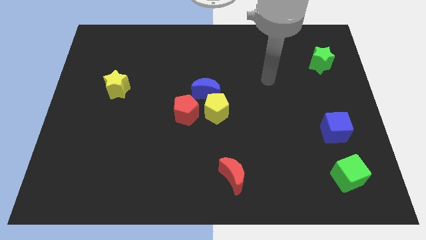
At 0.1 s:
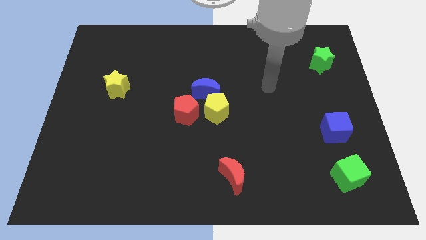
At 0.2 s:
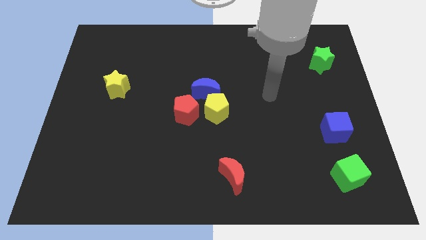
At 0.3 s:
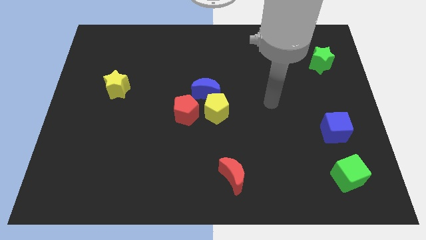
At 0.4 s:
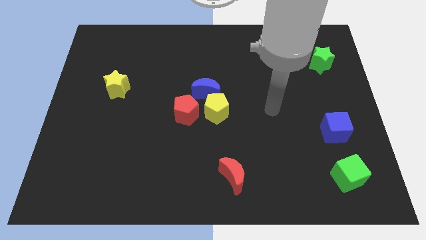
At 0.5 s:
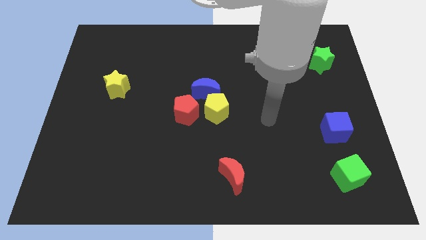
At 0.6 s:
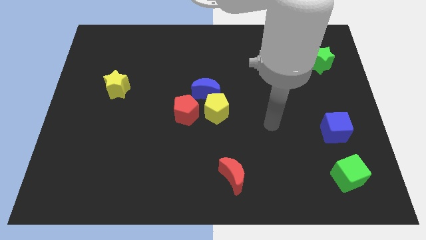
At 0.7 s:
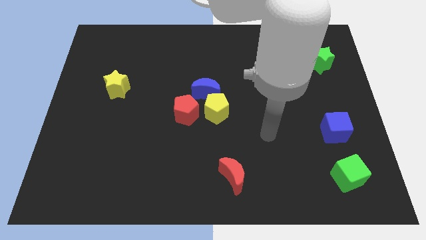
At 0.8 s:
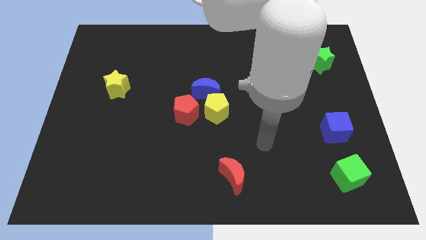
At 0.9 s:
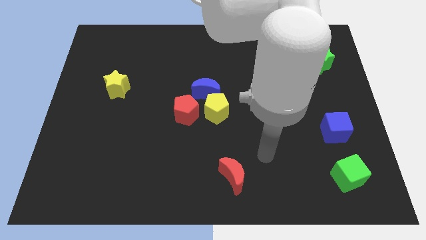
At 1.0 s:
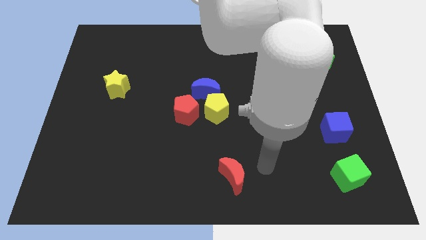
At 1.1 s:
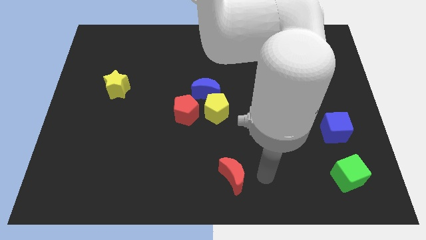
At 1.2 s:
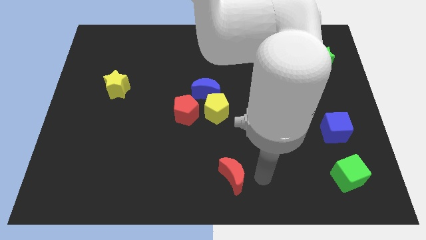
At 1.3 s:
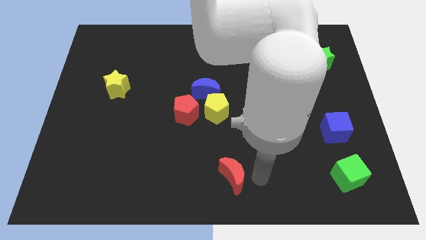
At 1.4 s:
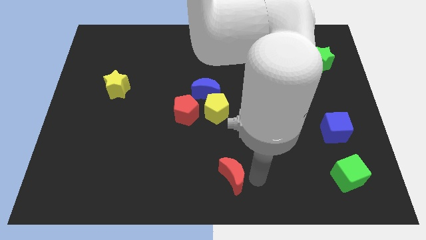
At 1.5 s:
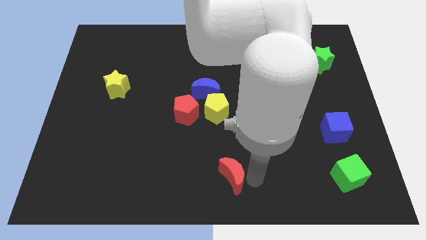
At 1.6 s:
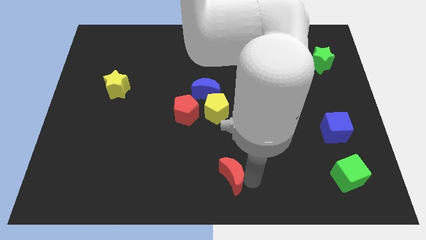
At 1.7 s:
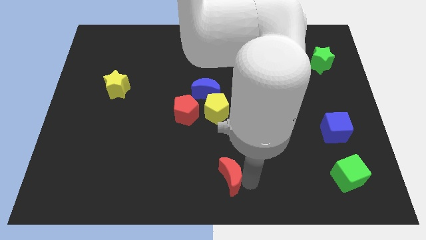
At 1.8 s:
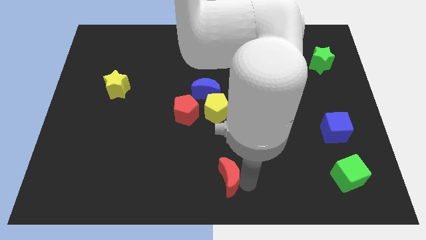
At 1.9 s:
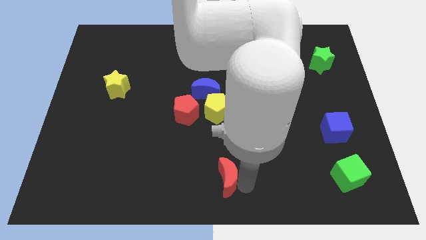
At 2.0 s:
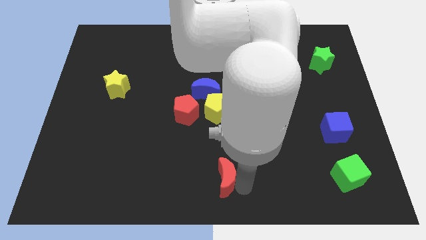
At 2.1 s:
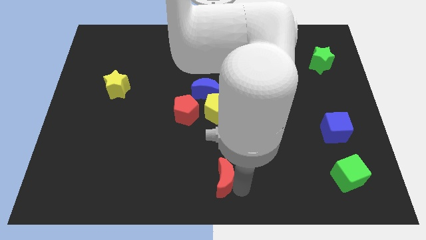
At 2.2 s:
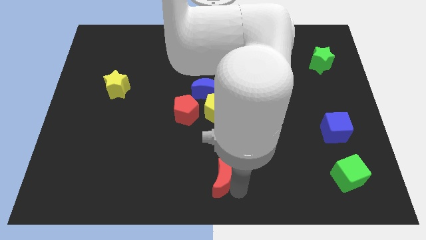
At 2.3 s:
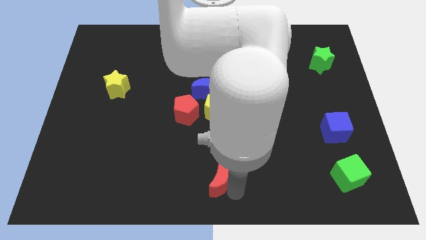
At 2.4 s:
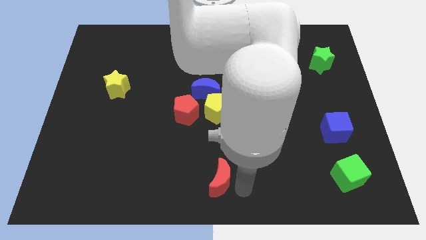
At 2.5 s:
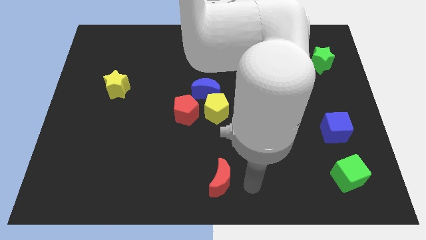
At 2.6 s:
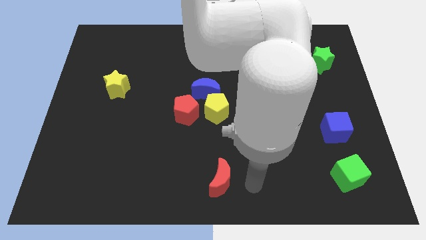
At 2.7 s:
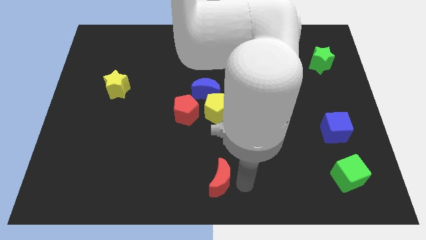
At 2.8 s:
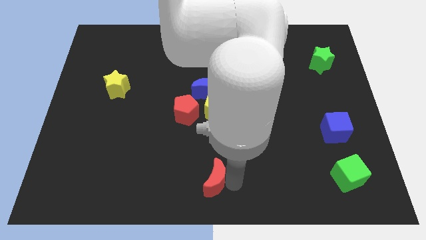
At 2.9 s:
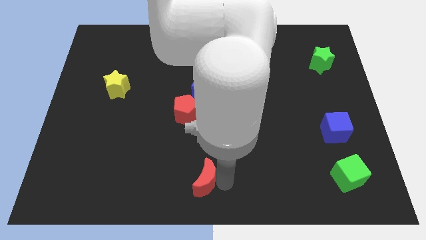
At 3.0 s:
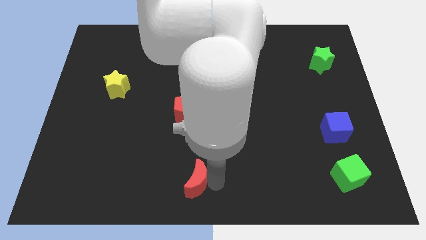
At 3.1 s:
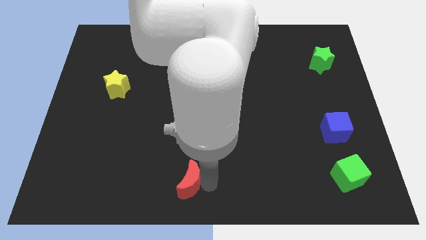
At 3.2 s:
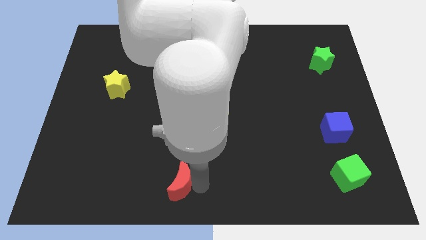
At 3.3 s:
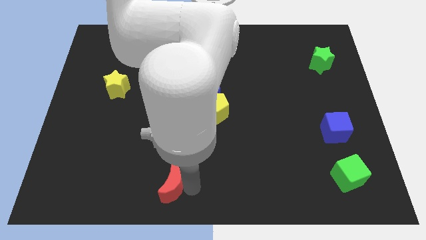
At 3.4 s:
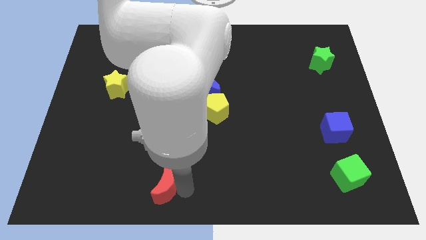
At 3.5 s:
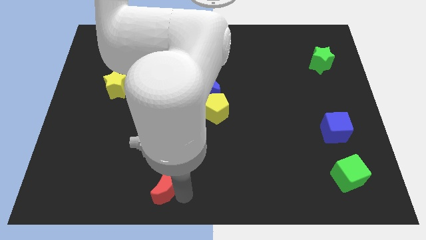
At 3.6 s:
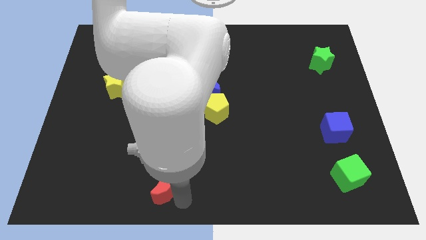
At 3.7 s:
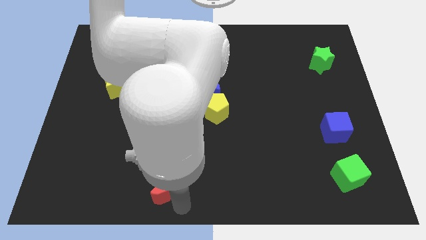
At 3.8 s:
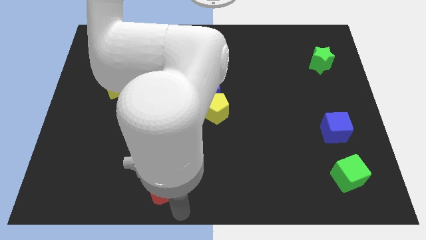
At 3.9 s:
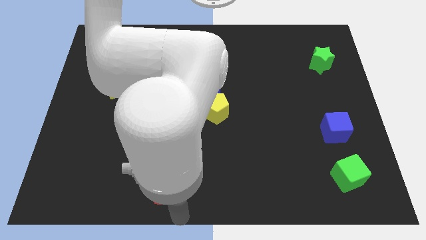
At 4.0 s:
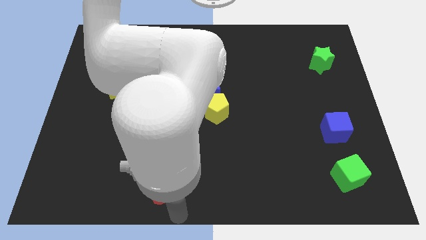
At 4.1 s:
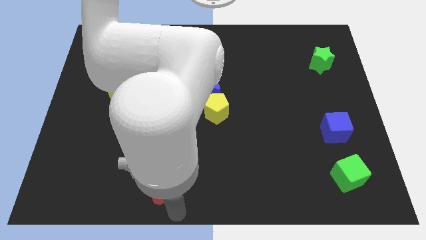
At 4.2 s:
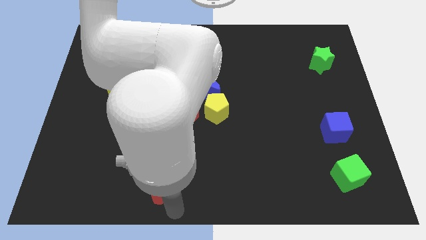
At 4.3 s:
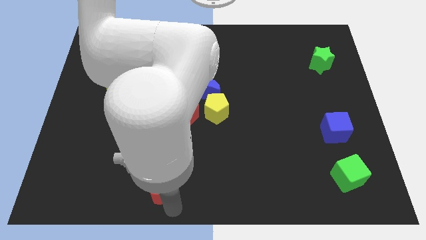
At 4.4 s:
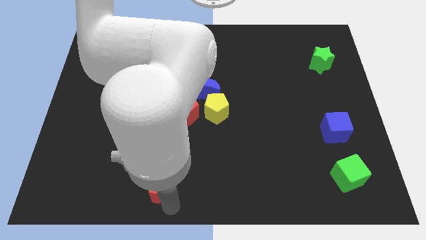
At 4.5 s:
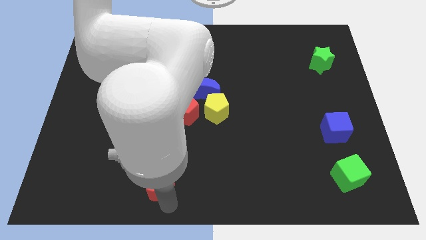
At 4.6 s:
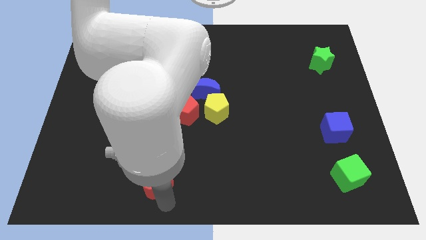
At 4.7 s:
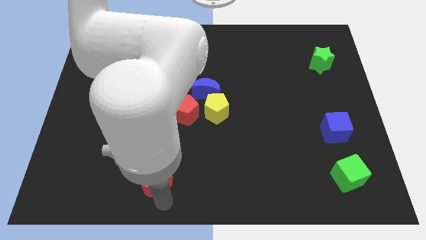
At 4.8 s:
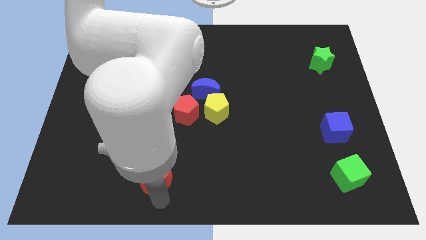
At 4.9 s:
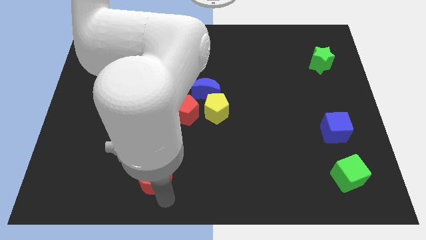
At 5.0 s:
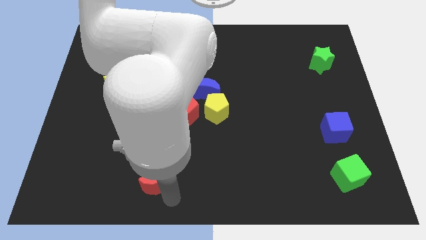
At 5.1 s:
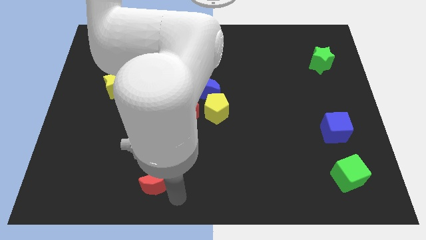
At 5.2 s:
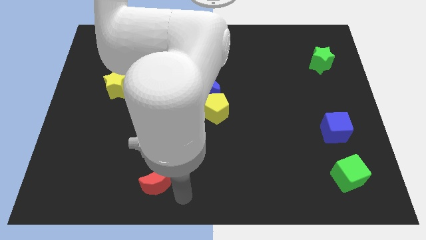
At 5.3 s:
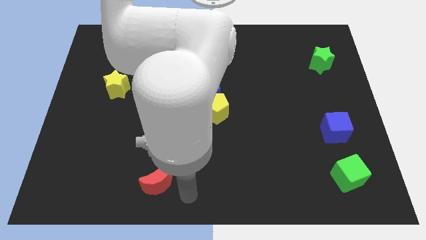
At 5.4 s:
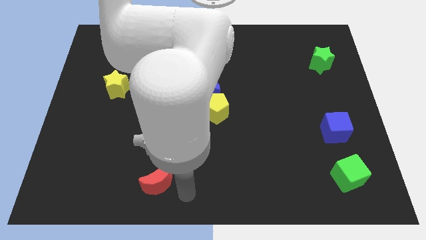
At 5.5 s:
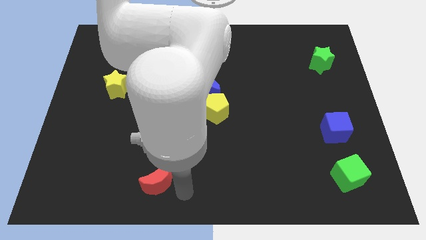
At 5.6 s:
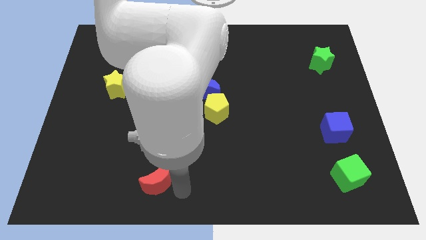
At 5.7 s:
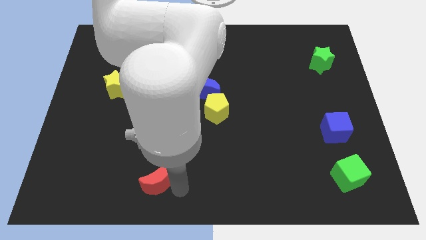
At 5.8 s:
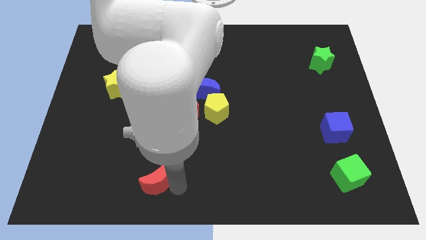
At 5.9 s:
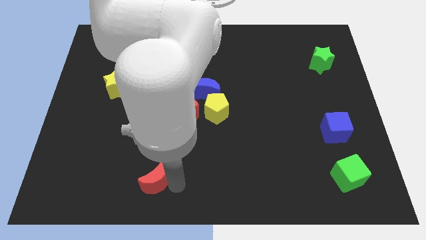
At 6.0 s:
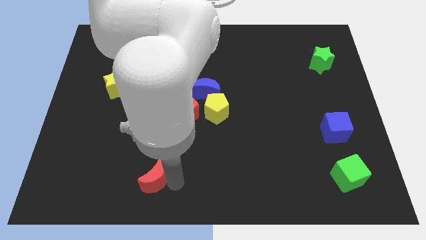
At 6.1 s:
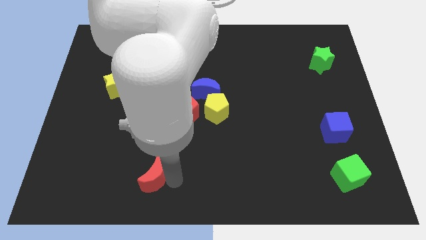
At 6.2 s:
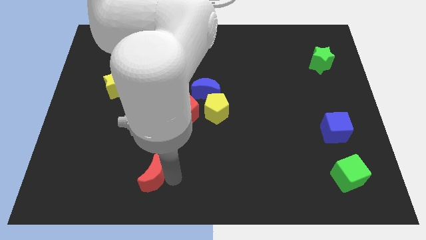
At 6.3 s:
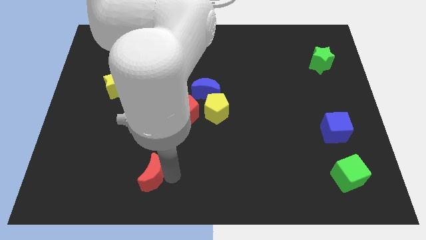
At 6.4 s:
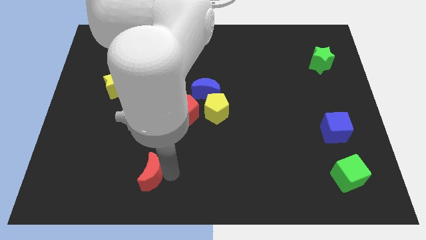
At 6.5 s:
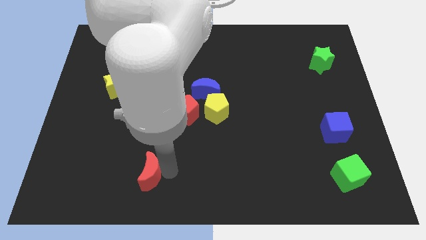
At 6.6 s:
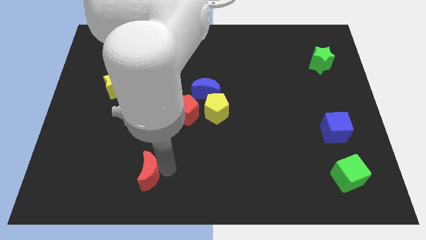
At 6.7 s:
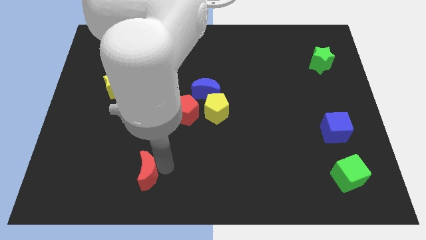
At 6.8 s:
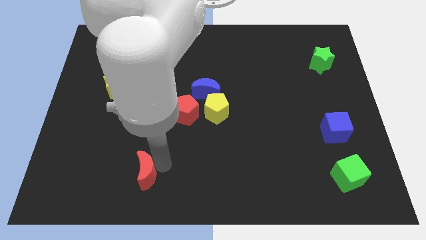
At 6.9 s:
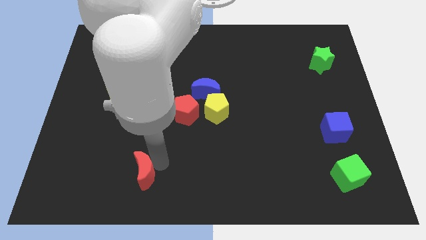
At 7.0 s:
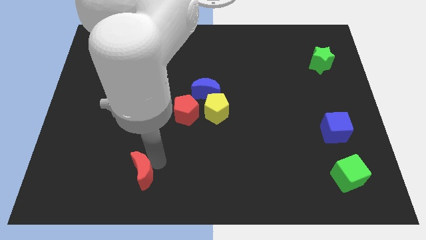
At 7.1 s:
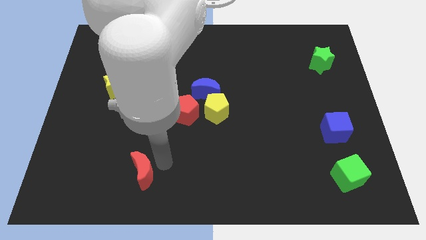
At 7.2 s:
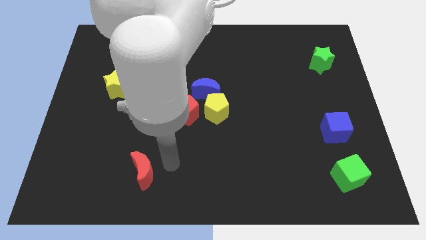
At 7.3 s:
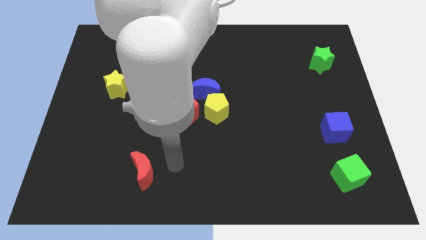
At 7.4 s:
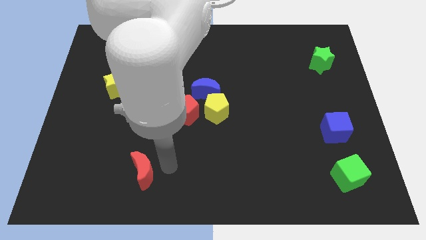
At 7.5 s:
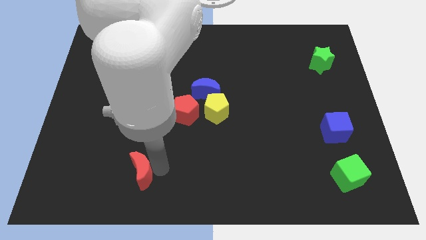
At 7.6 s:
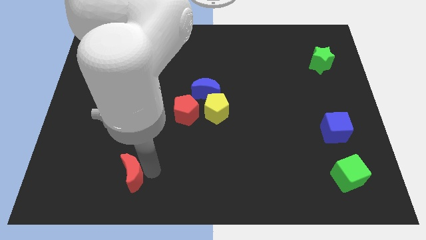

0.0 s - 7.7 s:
slide the red moon left

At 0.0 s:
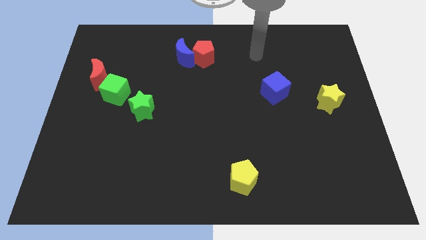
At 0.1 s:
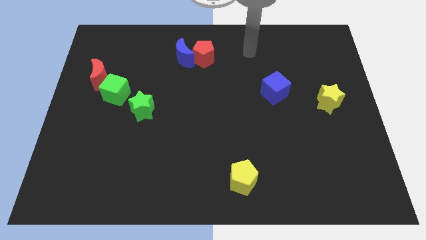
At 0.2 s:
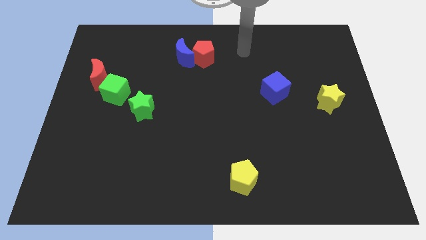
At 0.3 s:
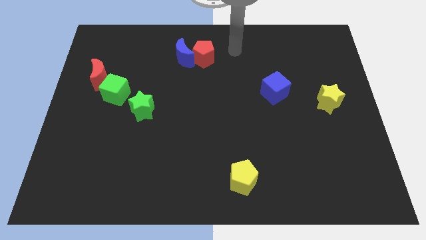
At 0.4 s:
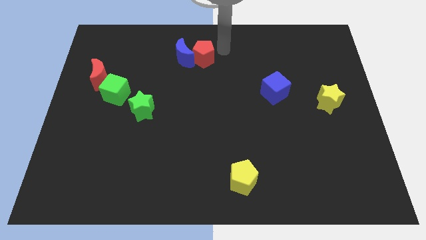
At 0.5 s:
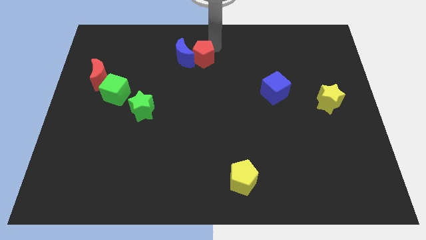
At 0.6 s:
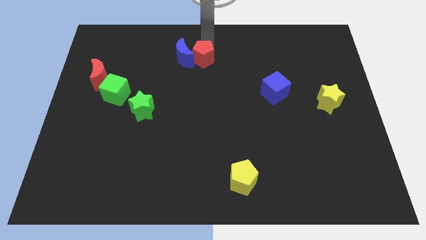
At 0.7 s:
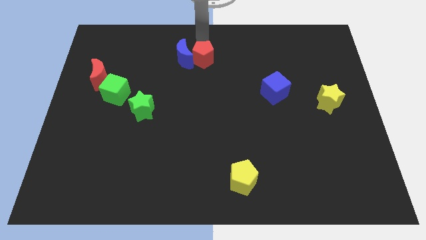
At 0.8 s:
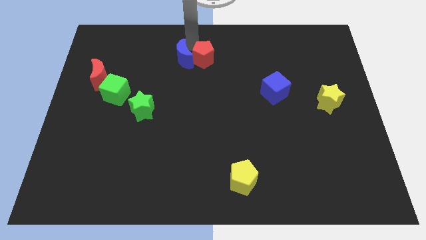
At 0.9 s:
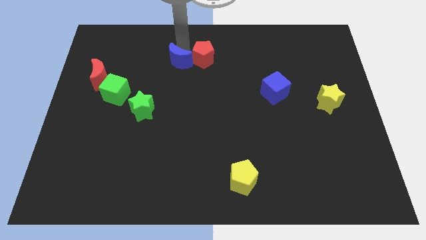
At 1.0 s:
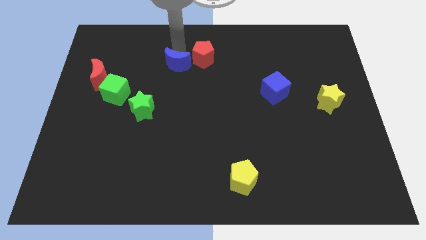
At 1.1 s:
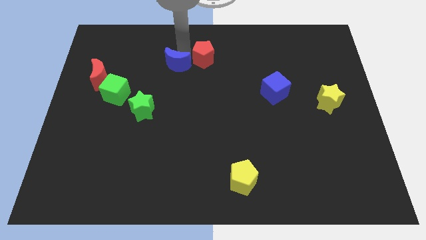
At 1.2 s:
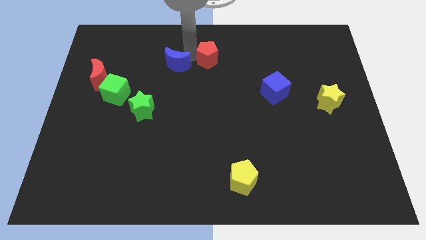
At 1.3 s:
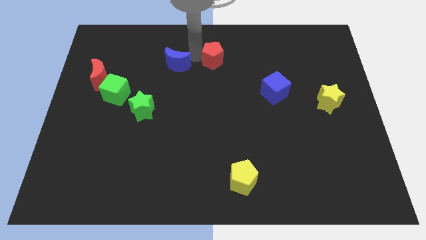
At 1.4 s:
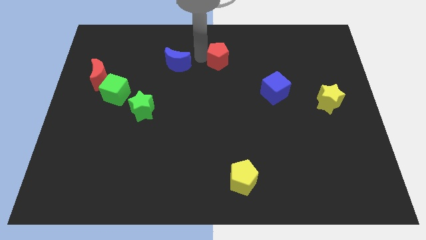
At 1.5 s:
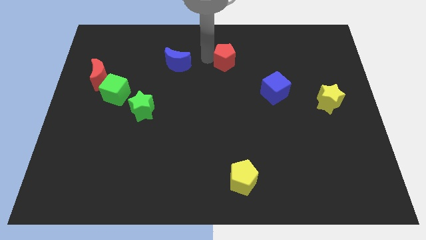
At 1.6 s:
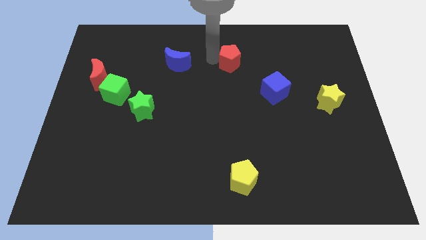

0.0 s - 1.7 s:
move the red pentagon a little bit to the right
